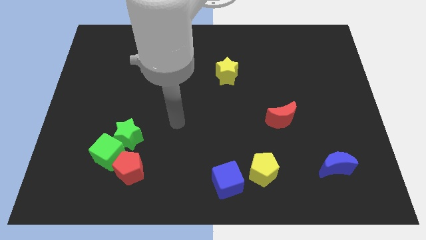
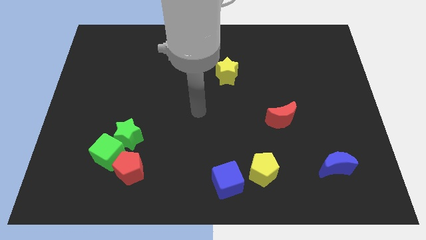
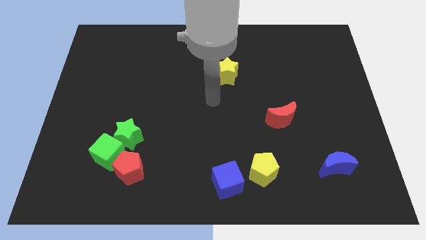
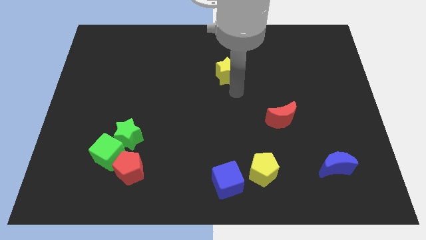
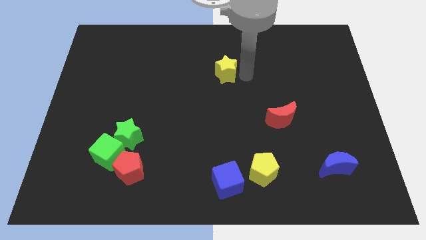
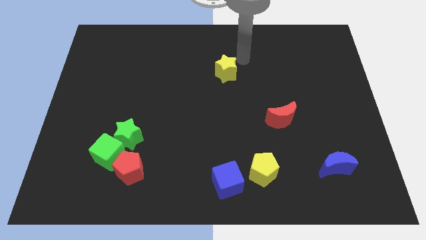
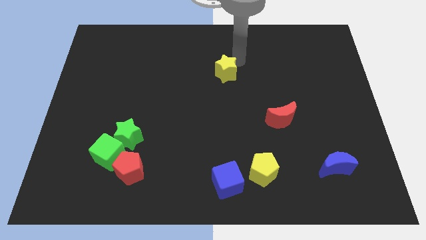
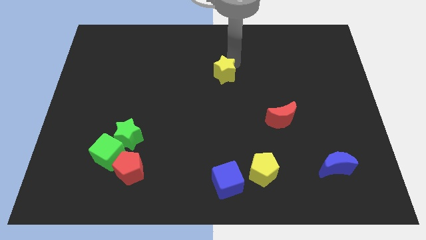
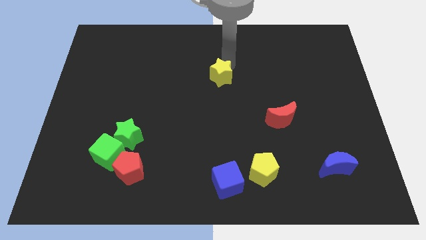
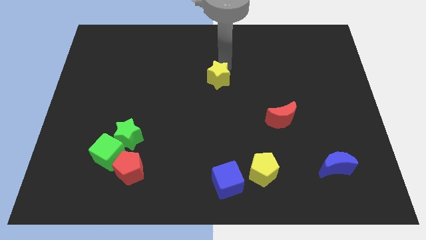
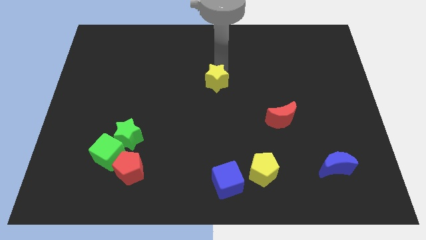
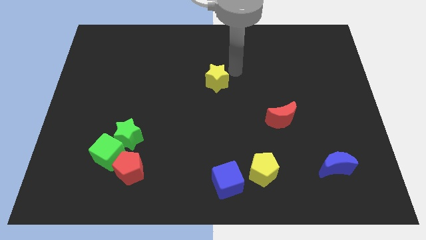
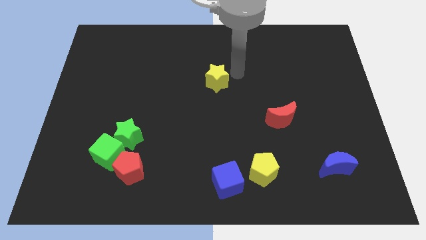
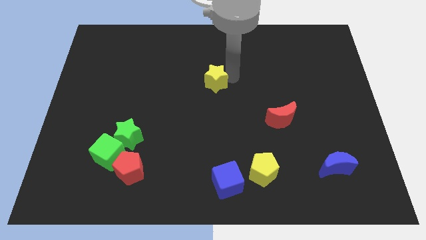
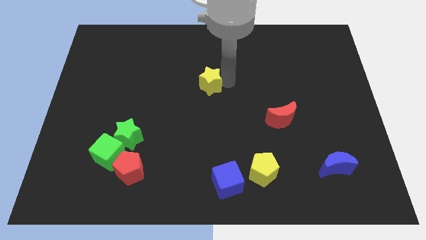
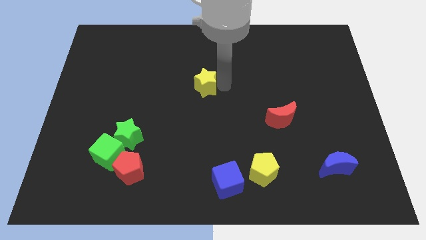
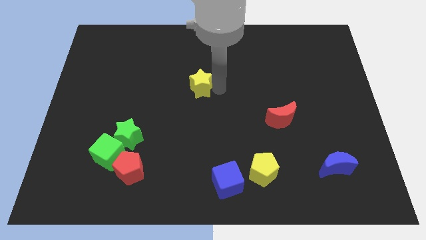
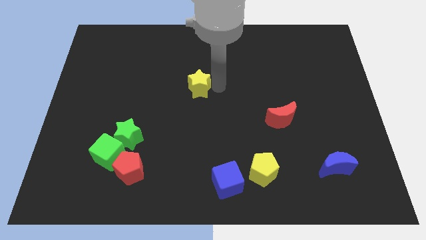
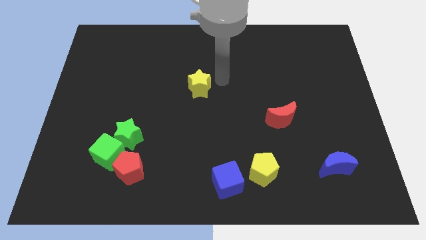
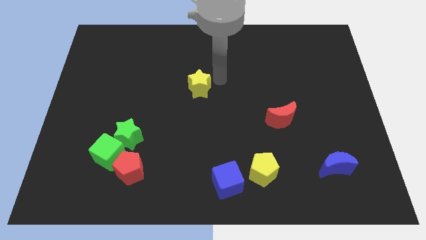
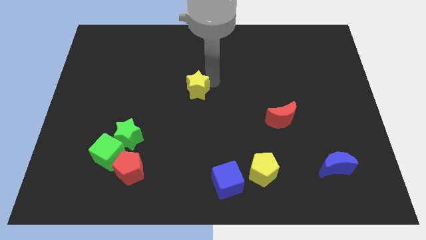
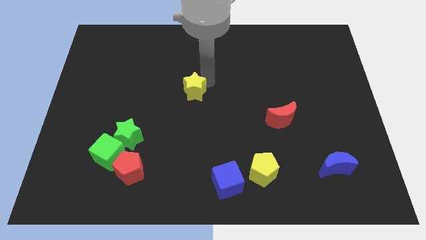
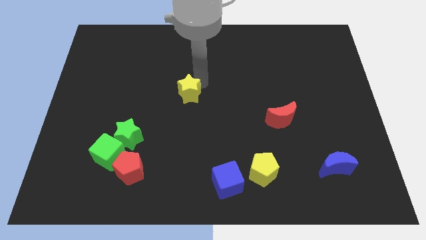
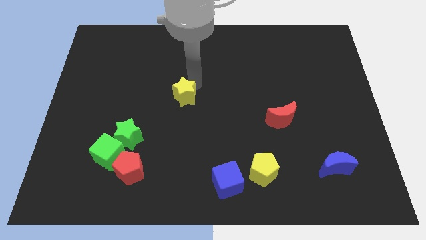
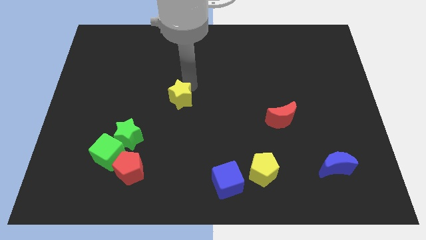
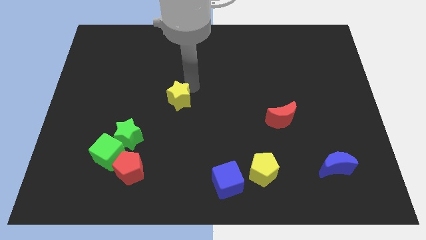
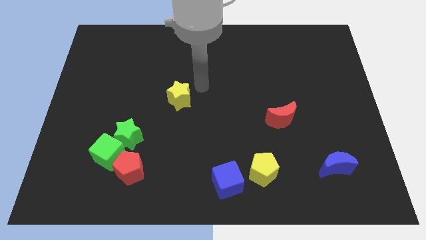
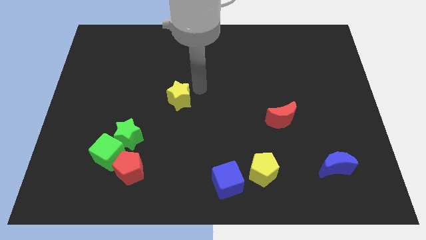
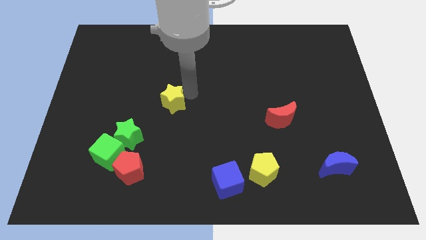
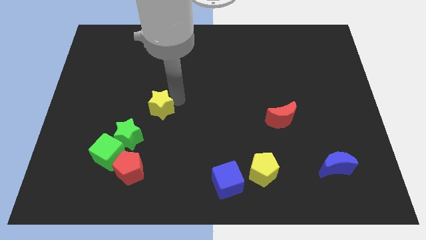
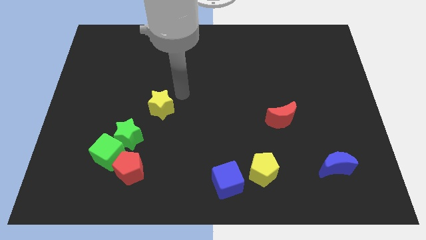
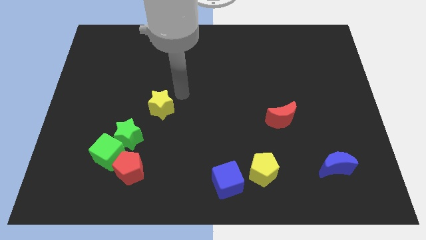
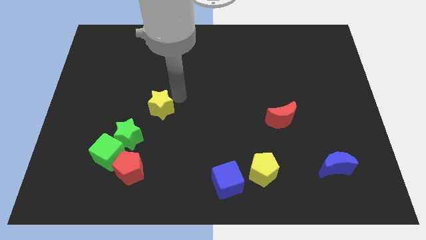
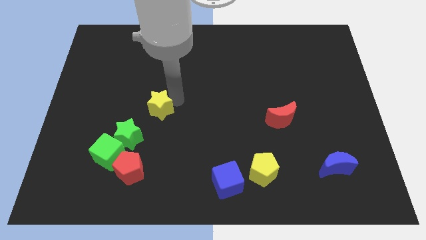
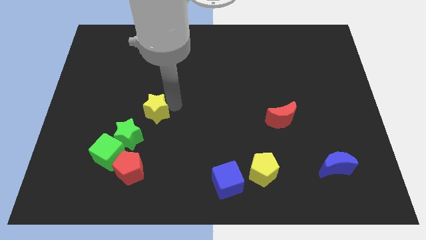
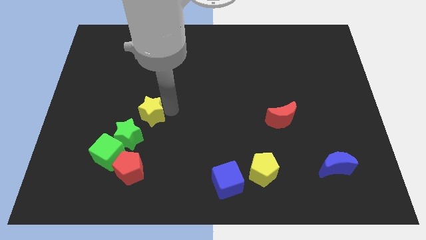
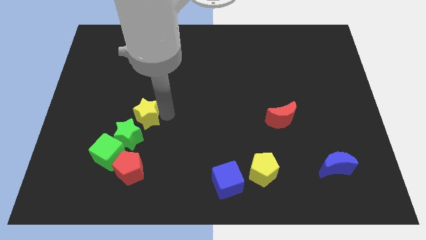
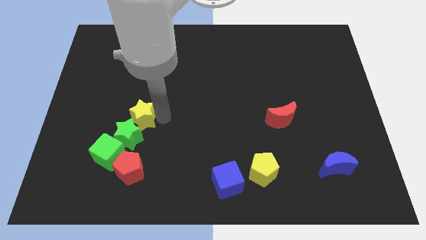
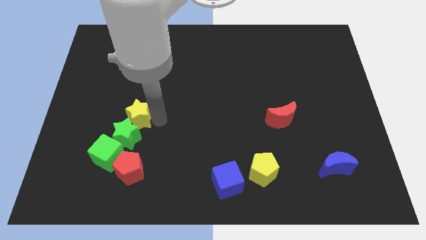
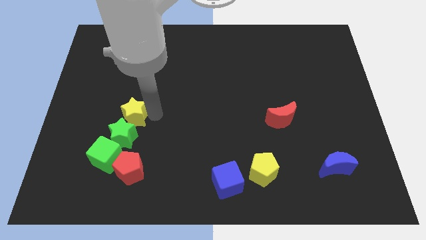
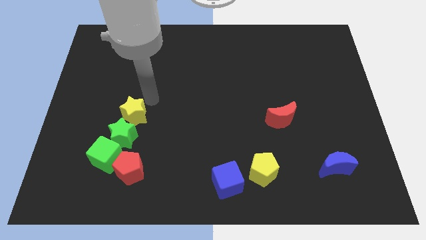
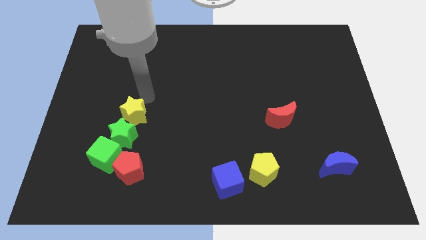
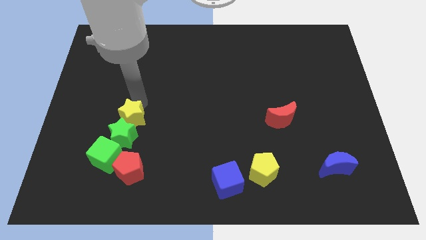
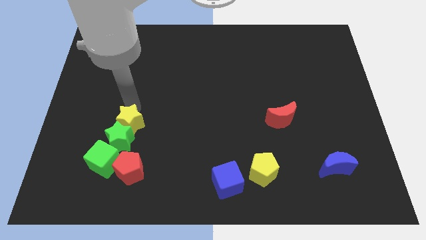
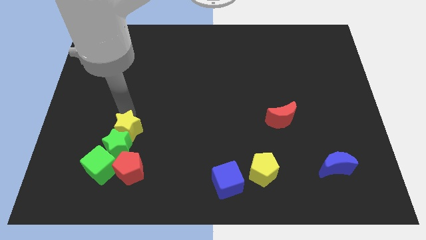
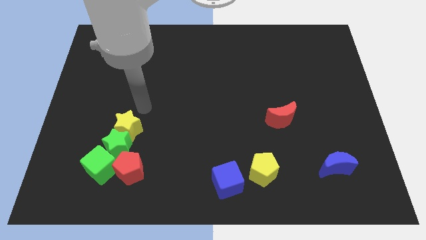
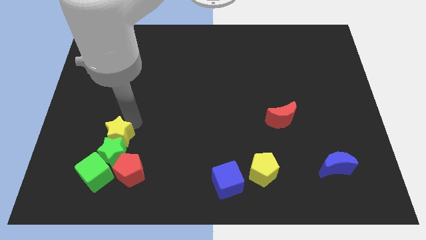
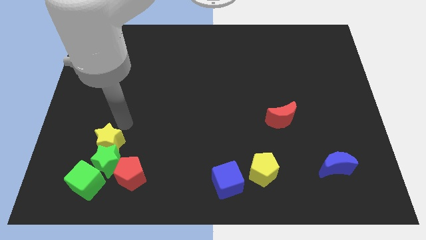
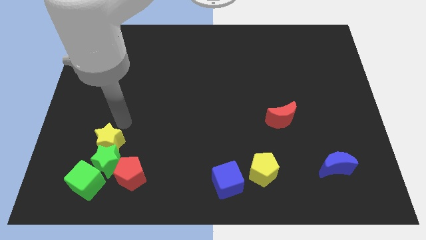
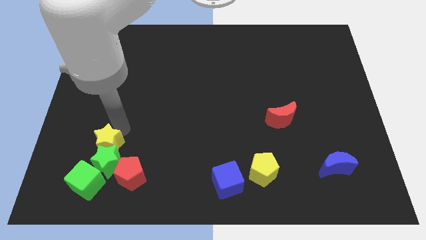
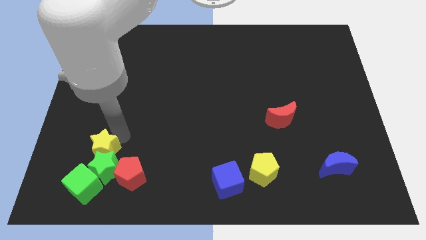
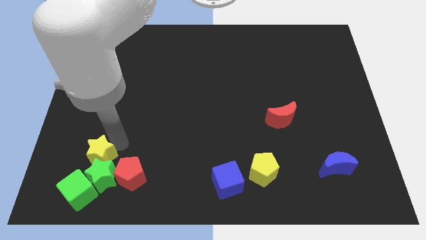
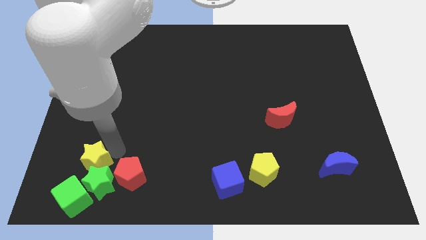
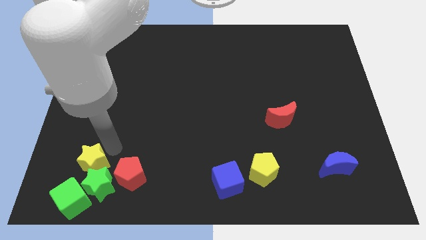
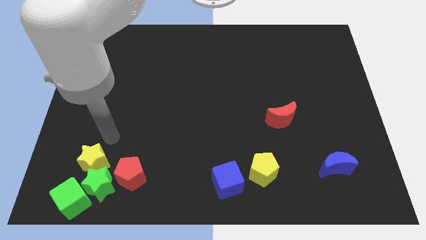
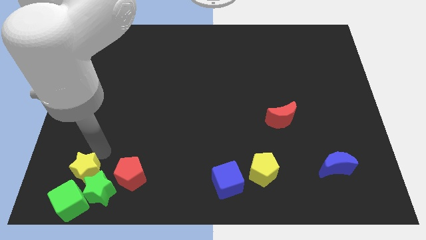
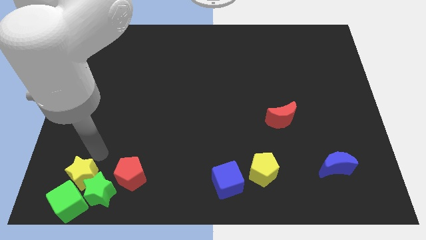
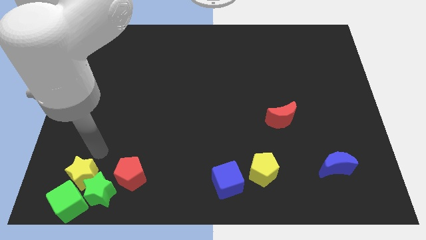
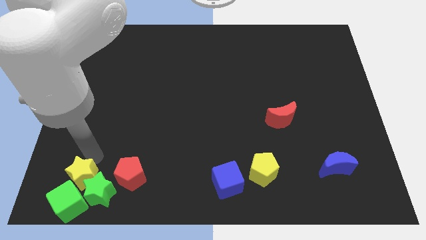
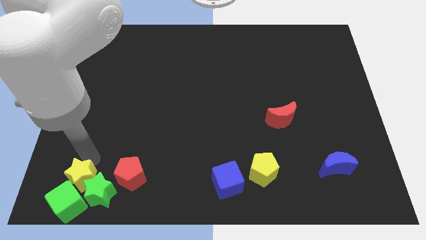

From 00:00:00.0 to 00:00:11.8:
slide the yellow star to the green cube

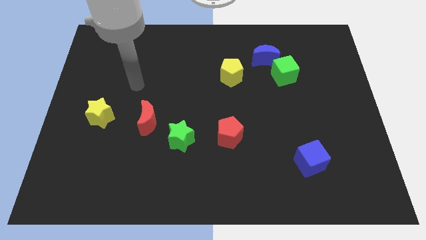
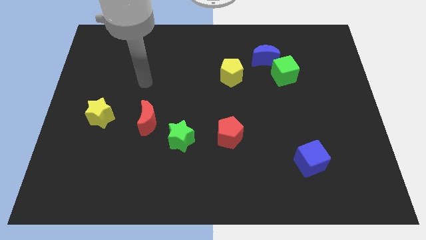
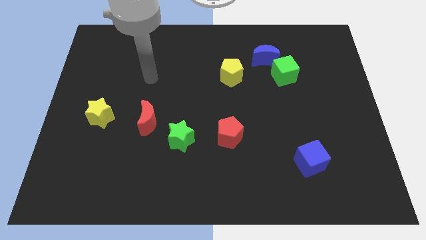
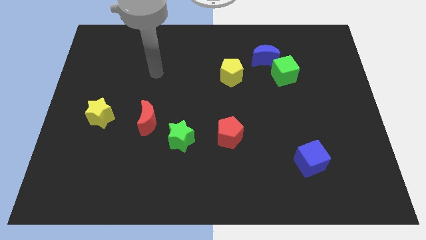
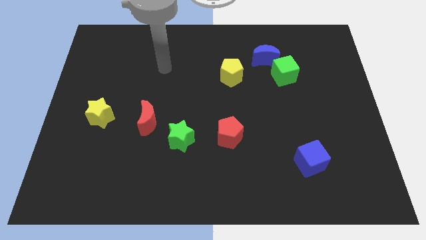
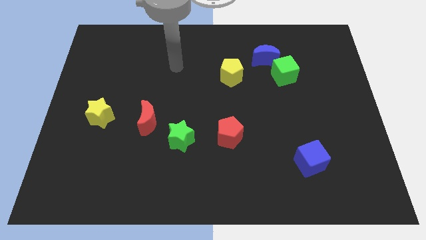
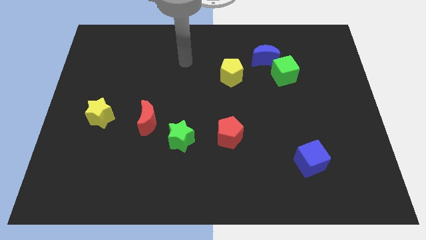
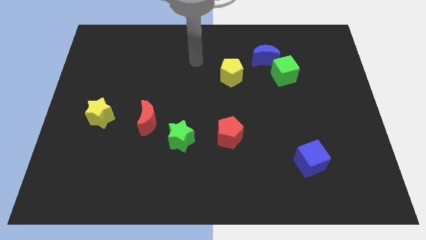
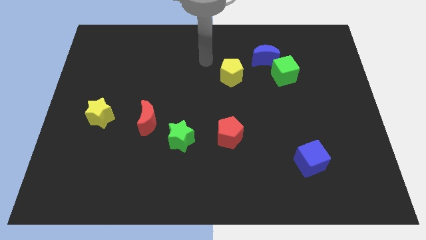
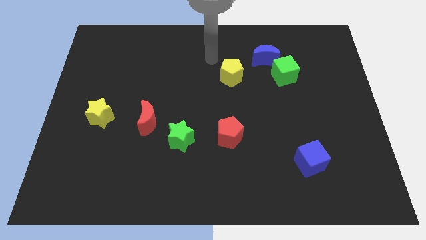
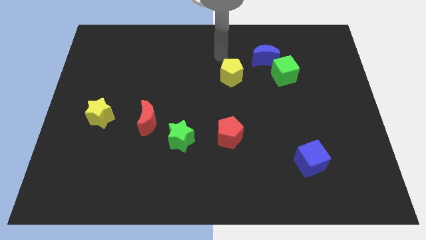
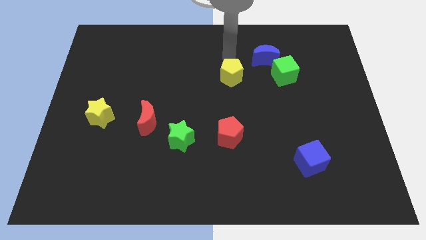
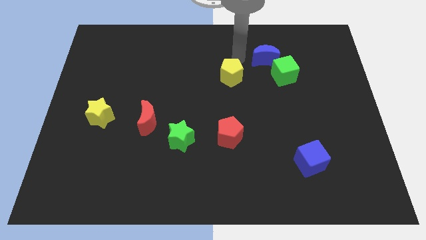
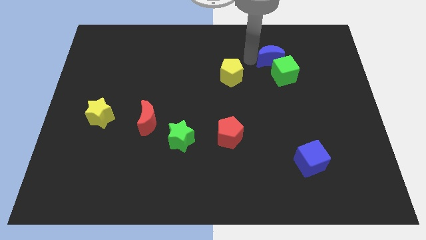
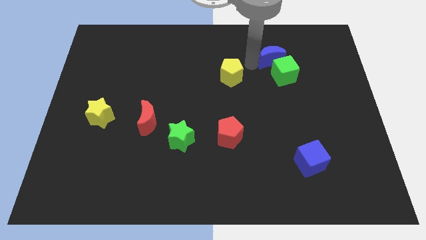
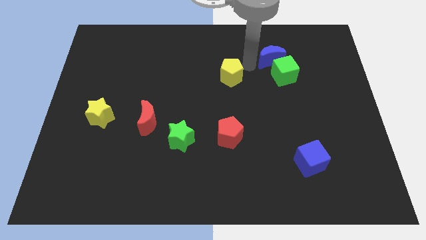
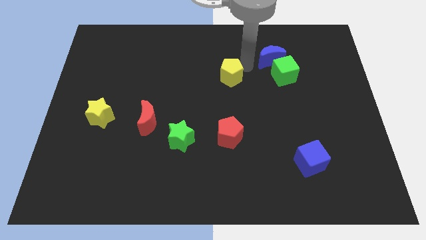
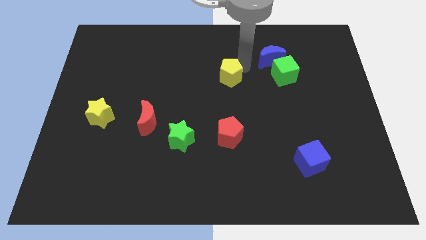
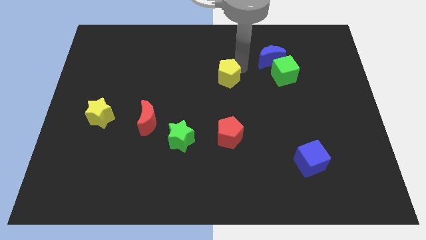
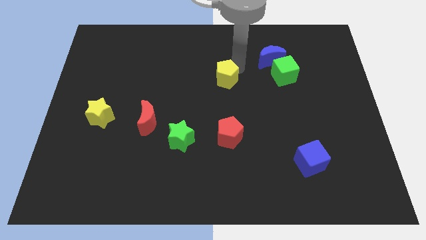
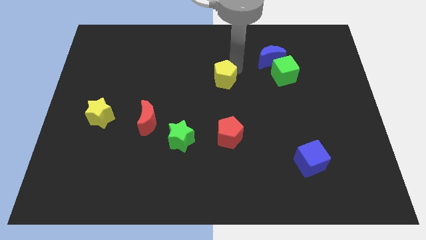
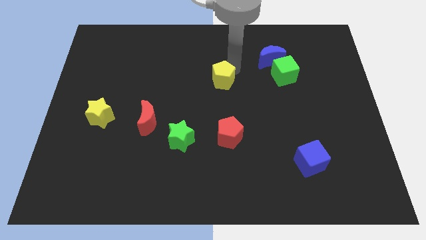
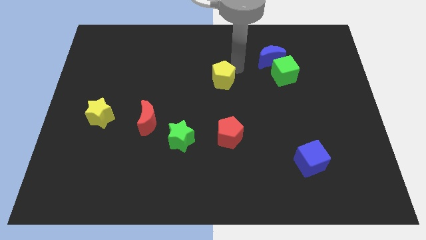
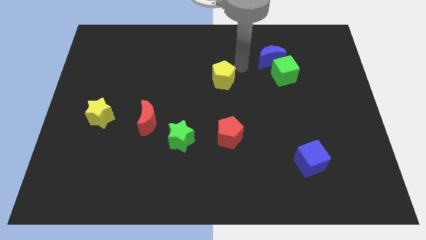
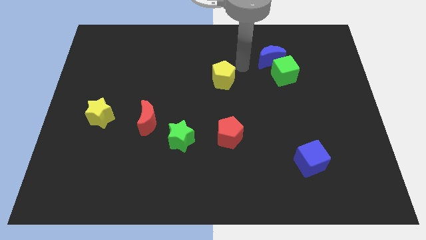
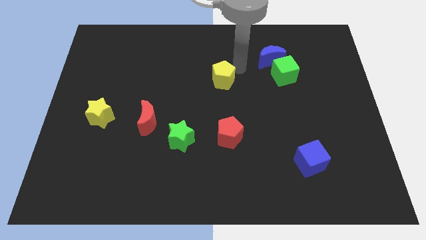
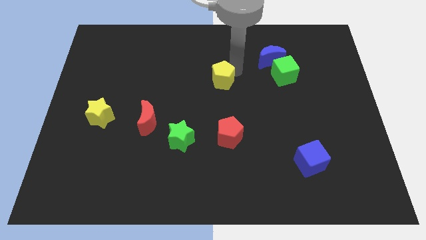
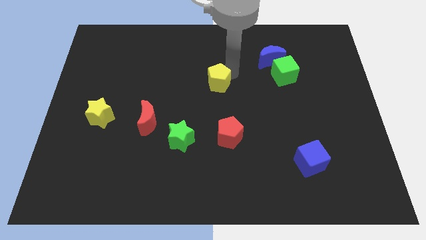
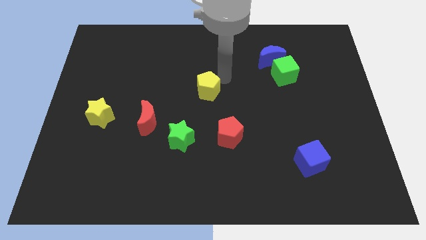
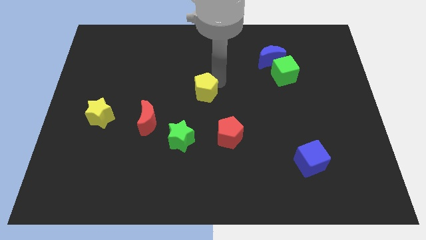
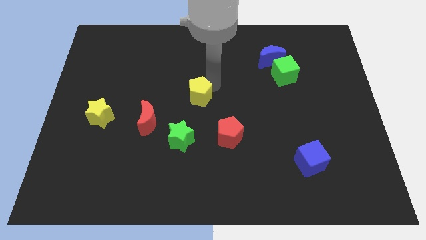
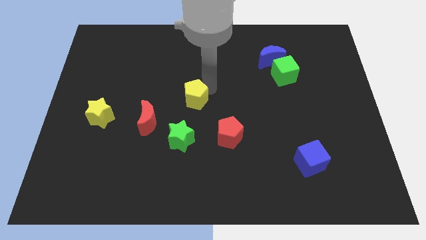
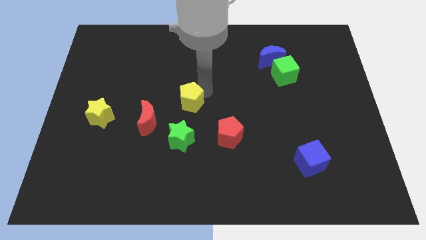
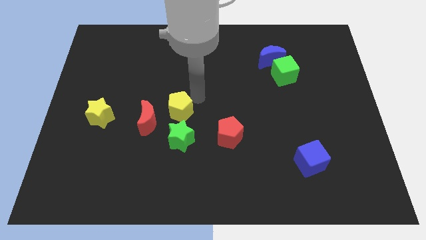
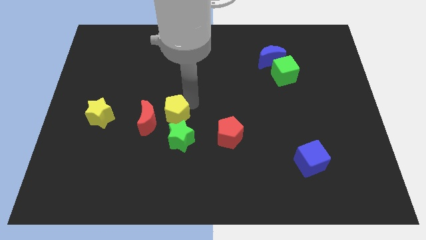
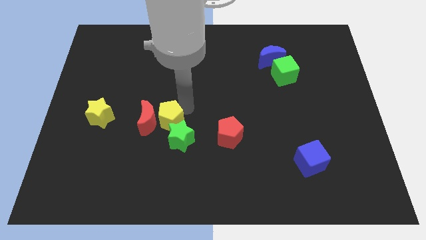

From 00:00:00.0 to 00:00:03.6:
slide the yellow pentagon towards the red moon
